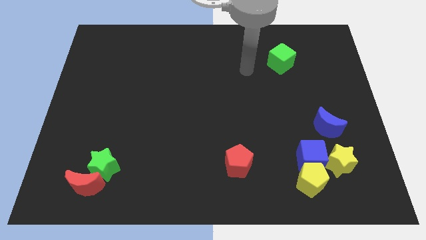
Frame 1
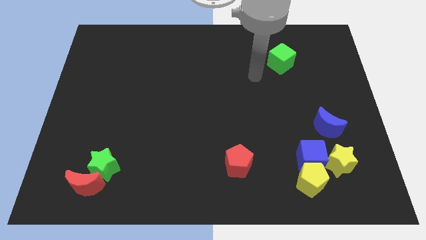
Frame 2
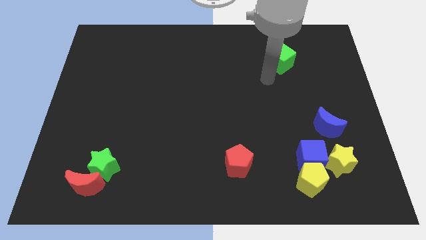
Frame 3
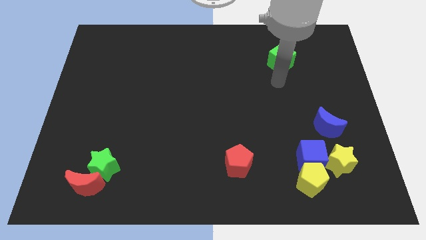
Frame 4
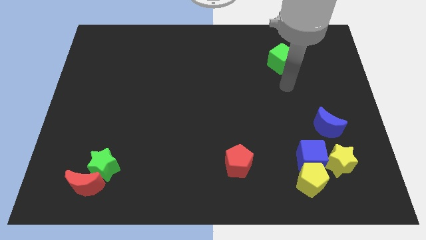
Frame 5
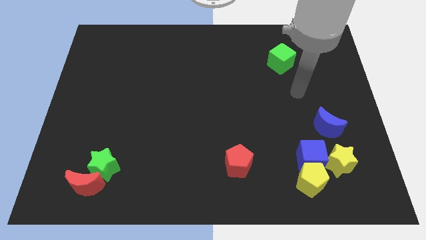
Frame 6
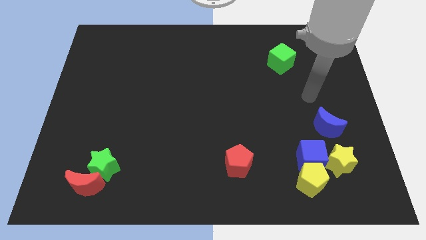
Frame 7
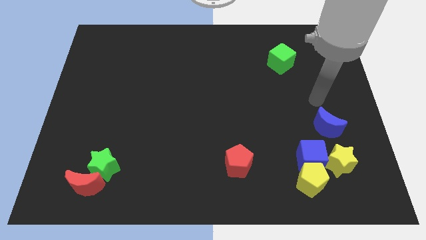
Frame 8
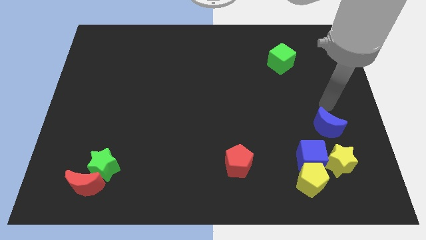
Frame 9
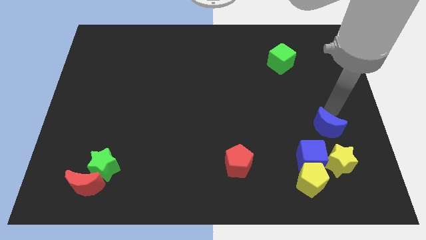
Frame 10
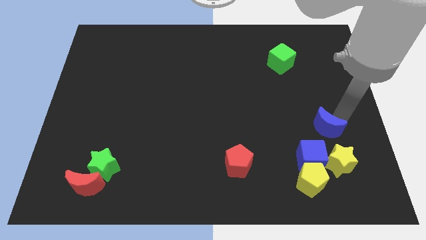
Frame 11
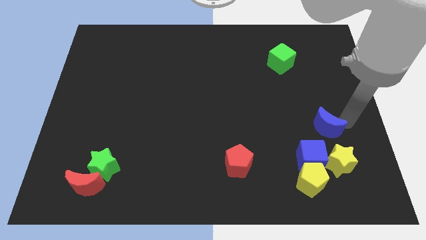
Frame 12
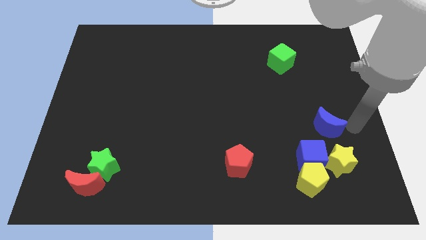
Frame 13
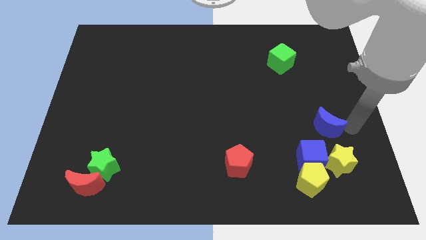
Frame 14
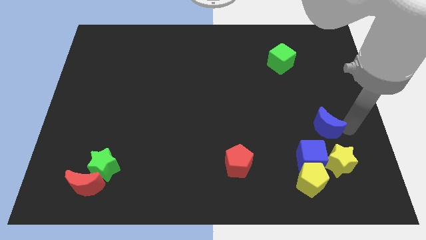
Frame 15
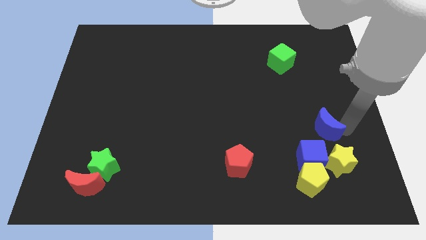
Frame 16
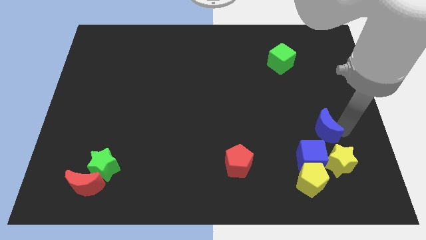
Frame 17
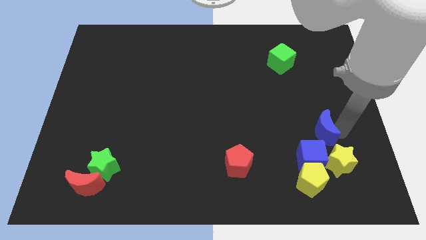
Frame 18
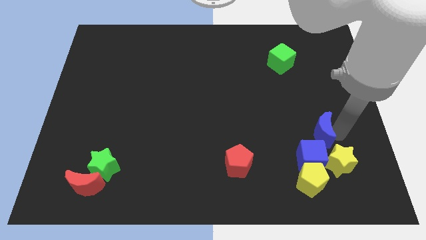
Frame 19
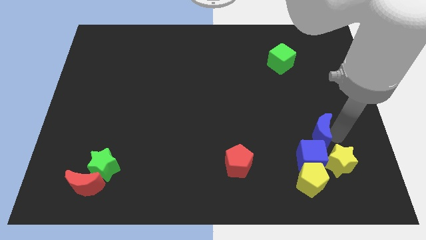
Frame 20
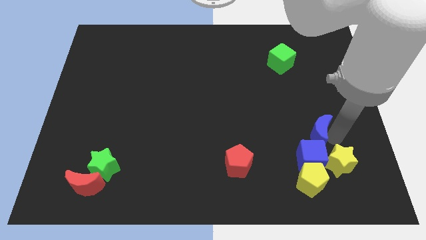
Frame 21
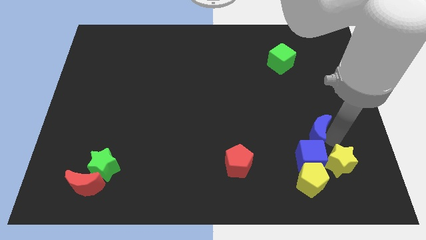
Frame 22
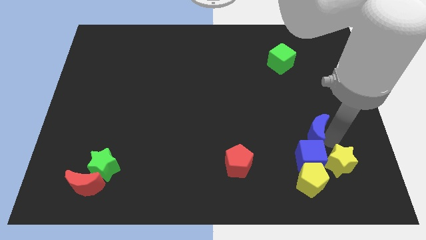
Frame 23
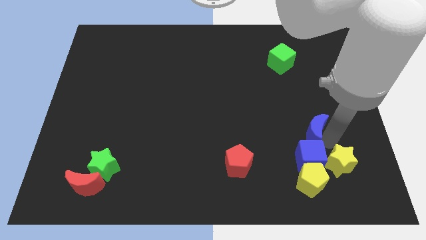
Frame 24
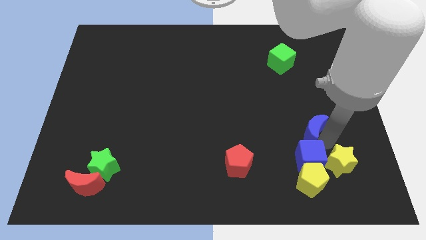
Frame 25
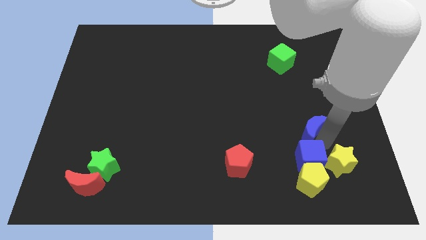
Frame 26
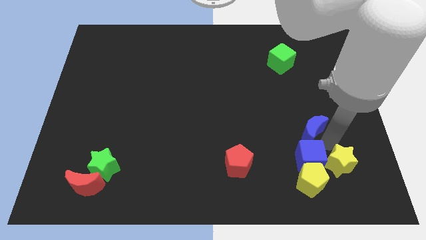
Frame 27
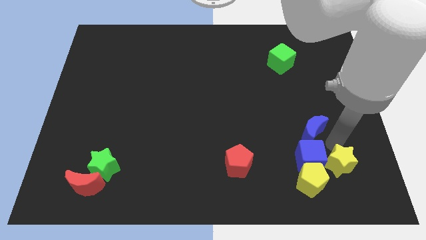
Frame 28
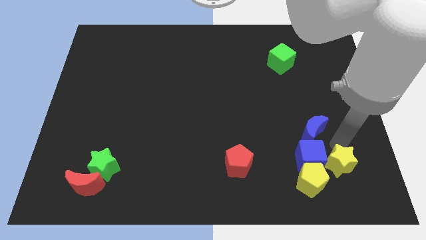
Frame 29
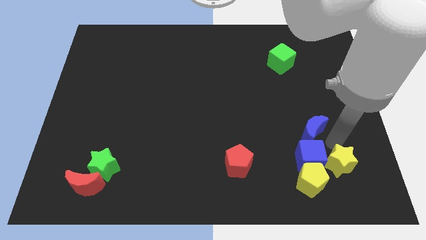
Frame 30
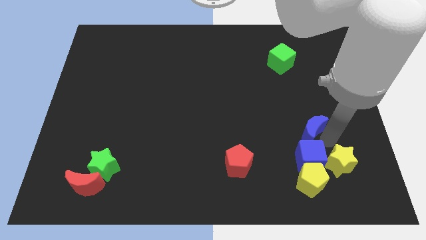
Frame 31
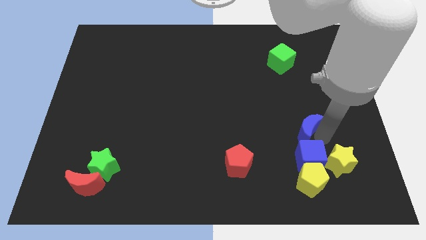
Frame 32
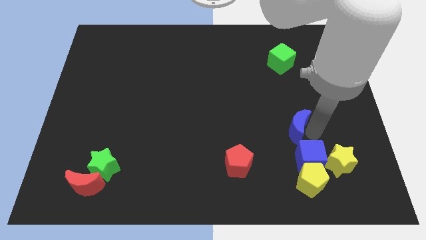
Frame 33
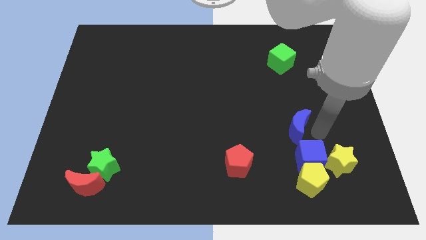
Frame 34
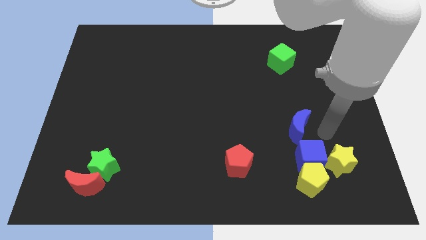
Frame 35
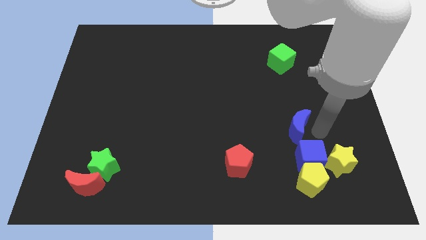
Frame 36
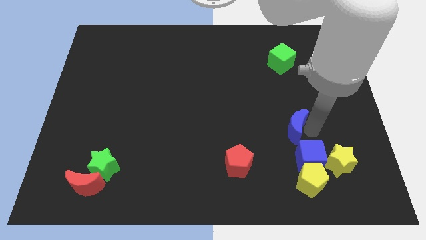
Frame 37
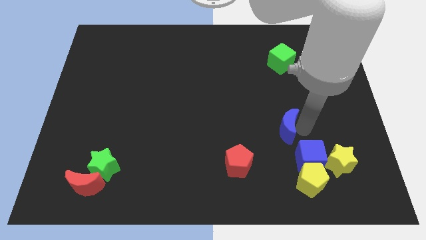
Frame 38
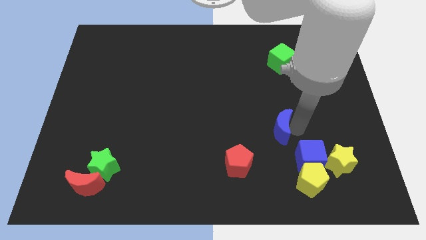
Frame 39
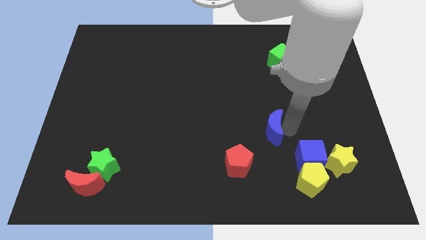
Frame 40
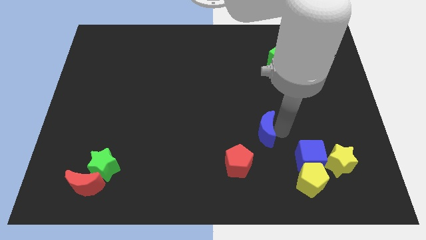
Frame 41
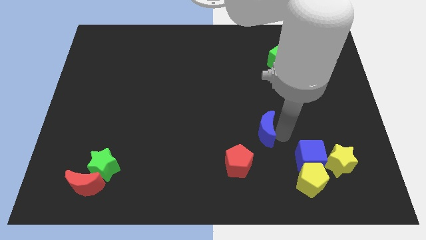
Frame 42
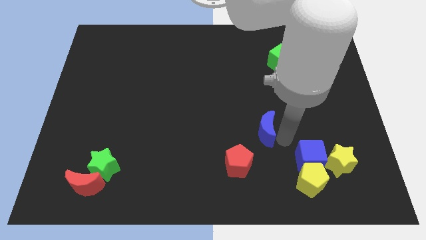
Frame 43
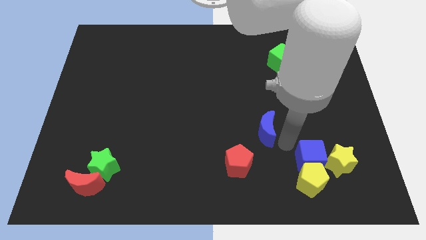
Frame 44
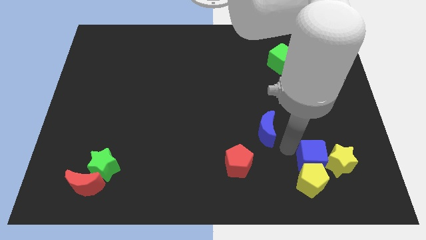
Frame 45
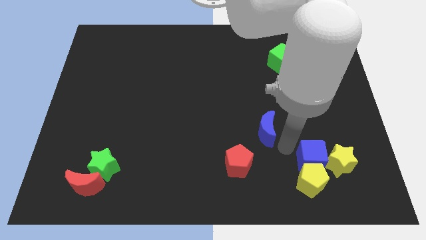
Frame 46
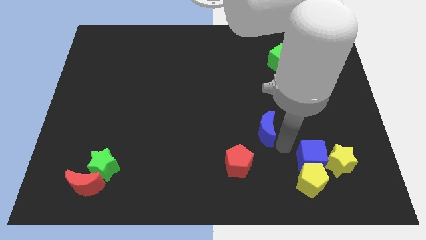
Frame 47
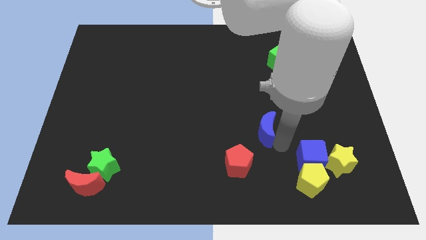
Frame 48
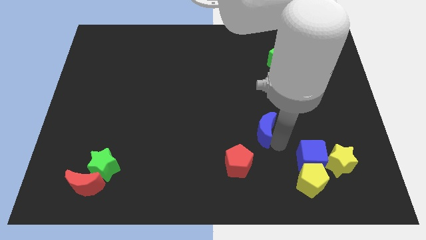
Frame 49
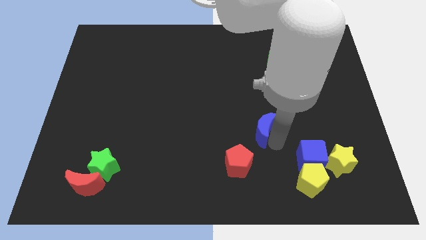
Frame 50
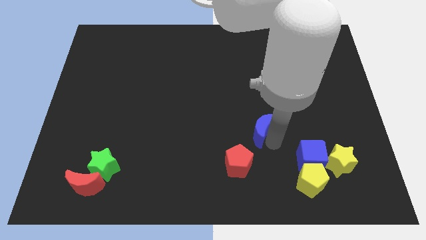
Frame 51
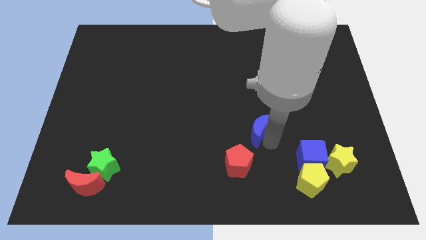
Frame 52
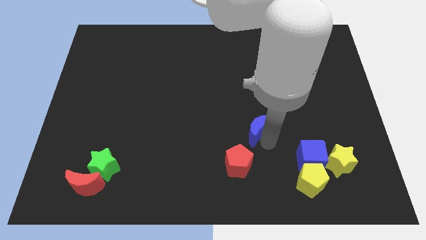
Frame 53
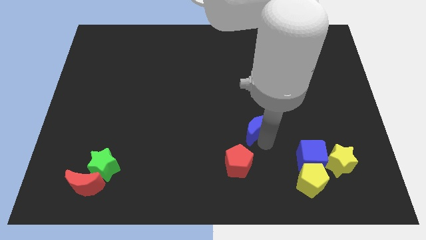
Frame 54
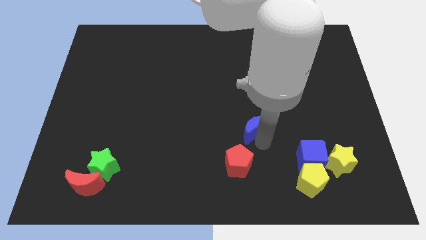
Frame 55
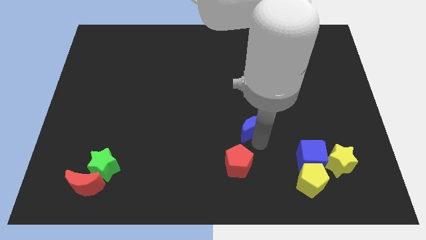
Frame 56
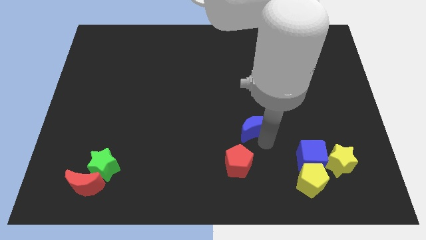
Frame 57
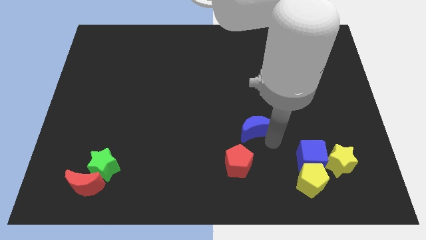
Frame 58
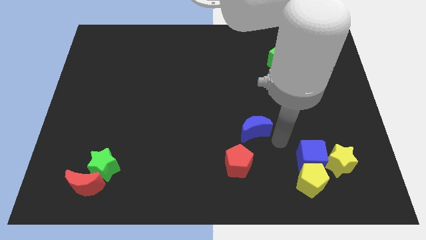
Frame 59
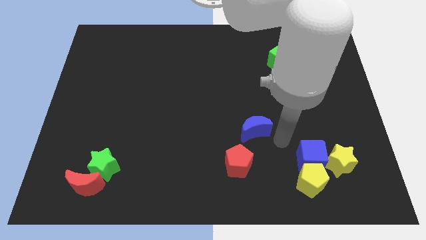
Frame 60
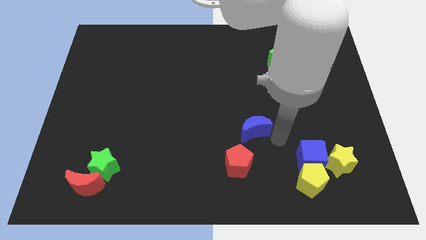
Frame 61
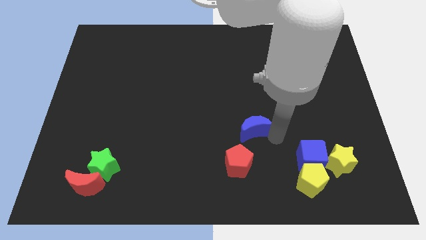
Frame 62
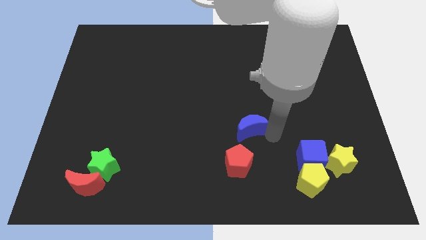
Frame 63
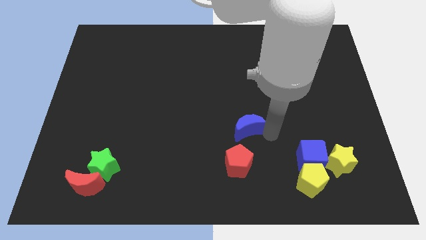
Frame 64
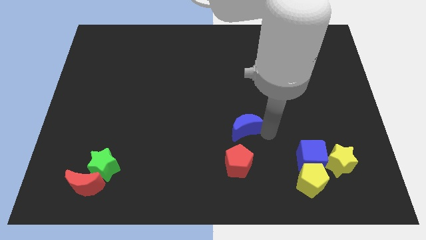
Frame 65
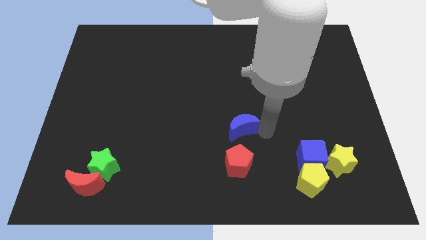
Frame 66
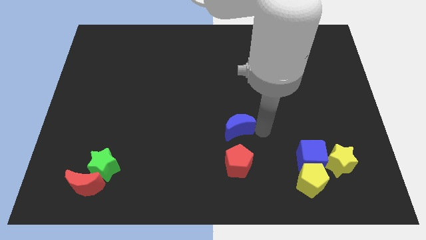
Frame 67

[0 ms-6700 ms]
push the blue moon to the left

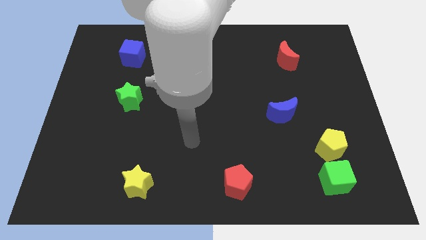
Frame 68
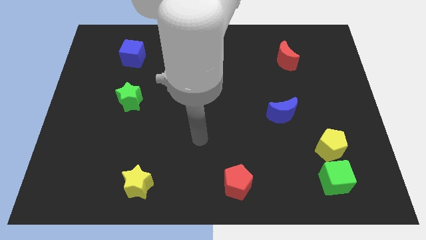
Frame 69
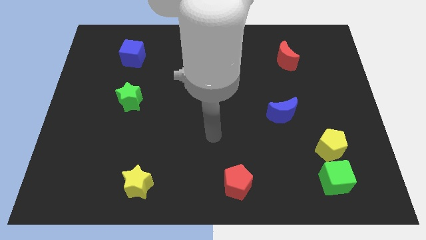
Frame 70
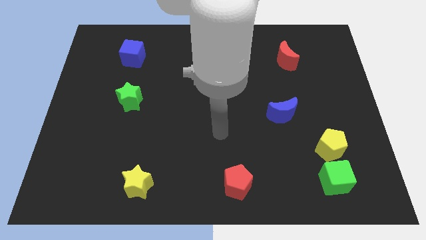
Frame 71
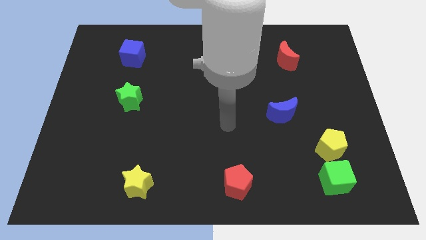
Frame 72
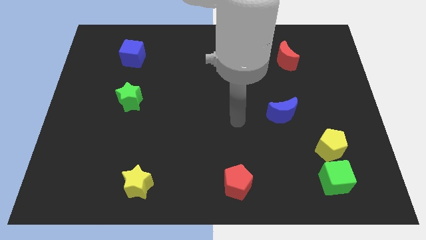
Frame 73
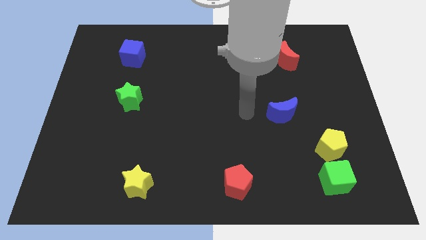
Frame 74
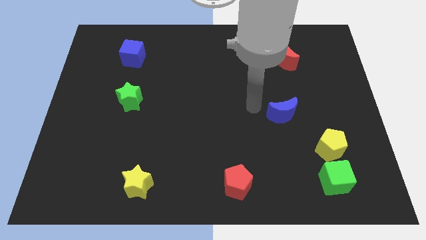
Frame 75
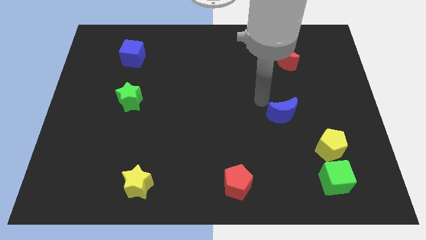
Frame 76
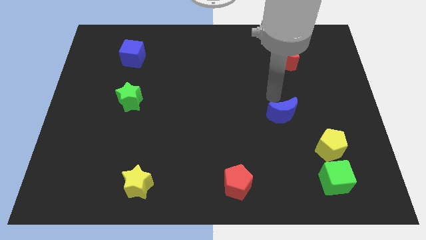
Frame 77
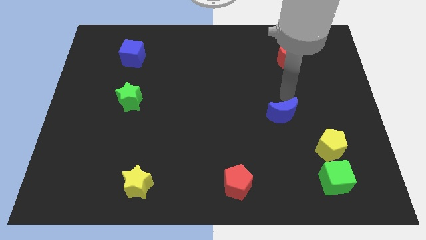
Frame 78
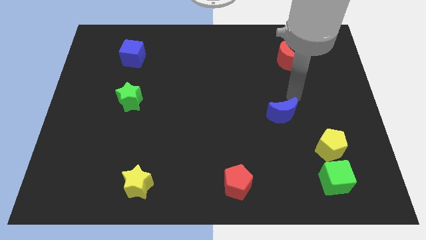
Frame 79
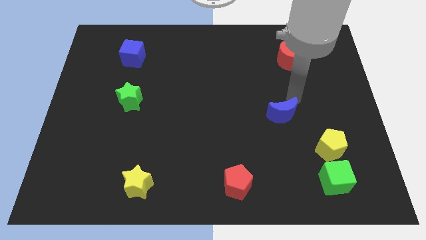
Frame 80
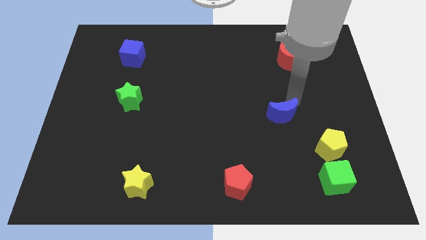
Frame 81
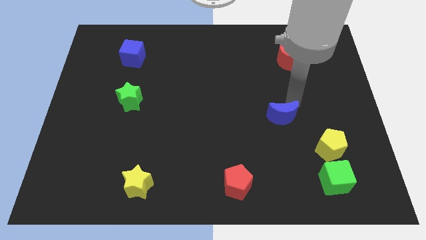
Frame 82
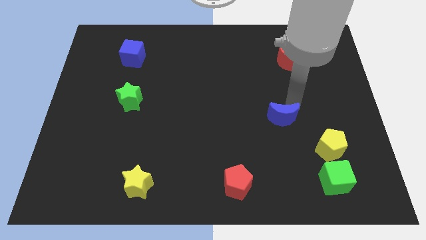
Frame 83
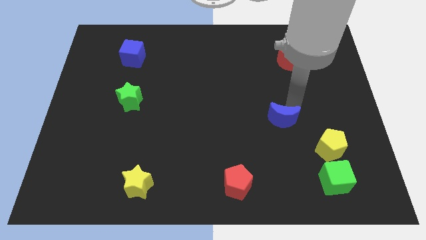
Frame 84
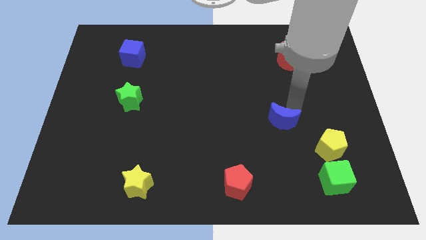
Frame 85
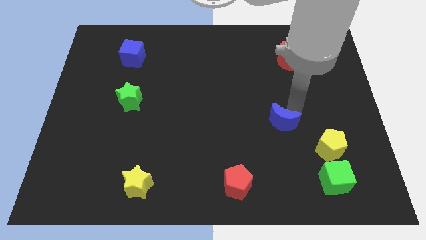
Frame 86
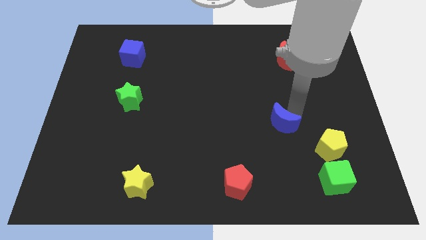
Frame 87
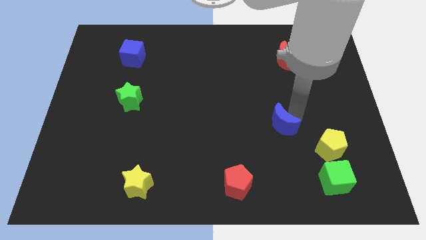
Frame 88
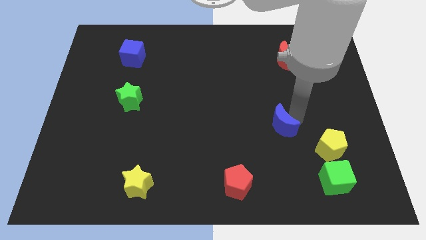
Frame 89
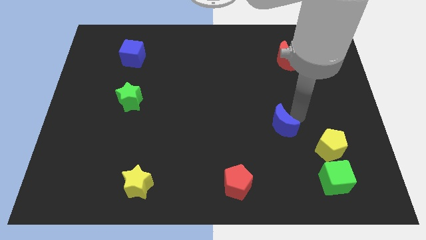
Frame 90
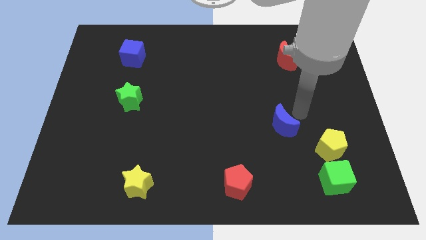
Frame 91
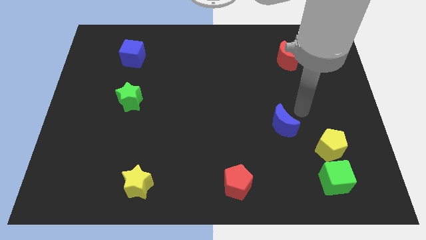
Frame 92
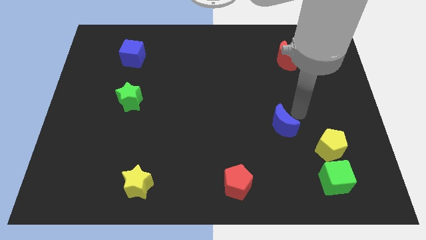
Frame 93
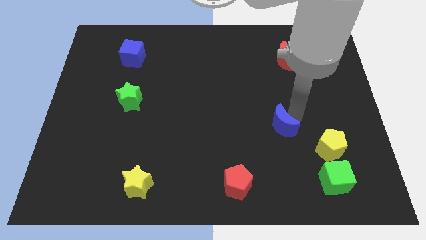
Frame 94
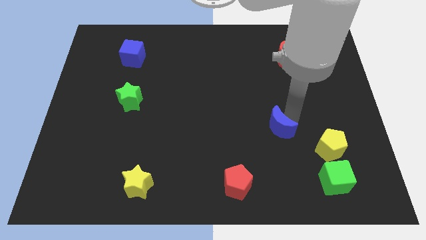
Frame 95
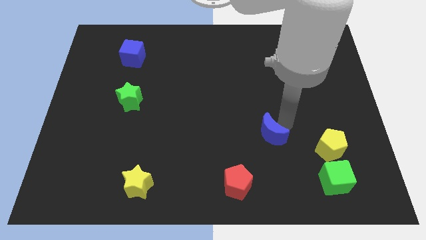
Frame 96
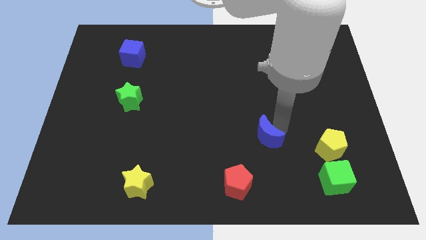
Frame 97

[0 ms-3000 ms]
move the blue moon slightly down and to the left diagonally
